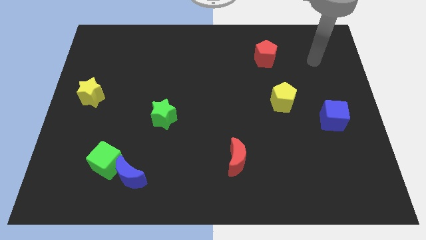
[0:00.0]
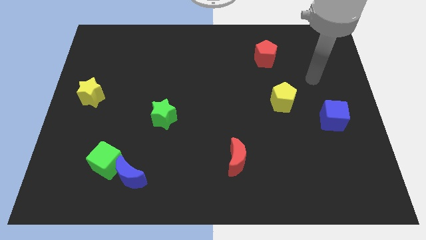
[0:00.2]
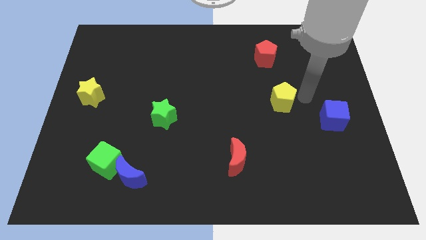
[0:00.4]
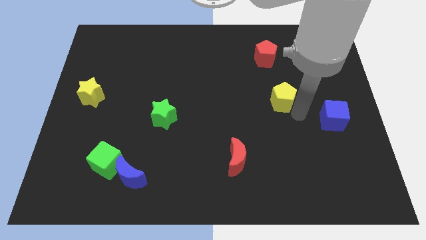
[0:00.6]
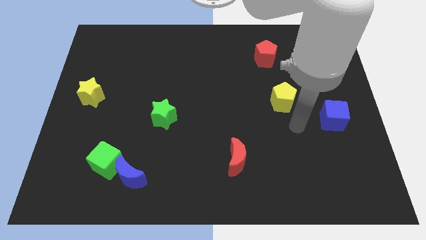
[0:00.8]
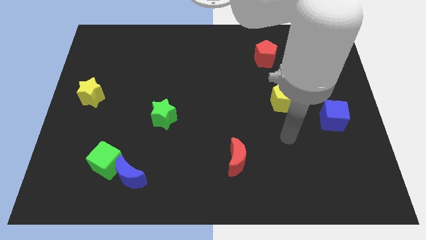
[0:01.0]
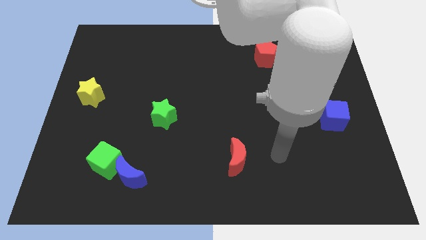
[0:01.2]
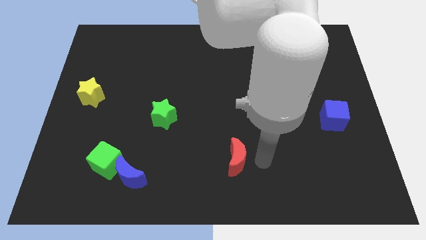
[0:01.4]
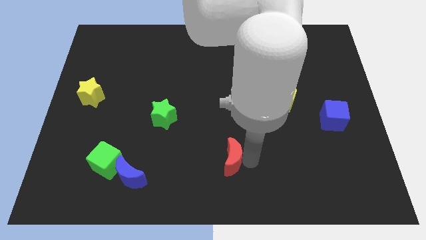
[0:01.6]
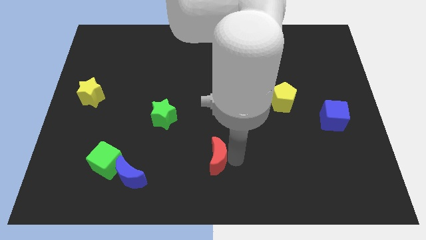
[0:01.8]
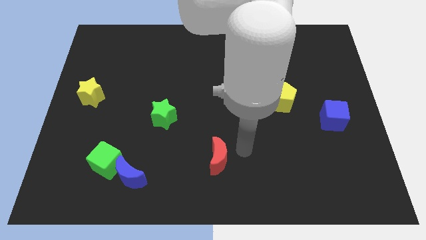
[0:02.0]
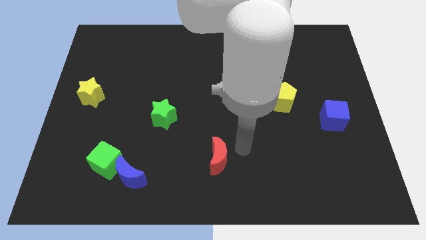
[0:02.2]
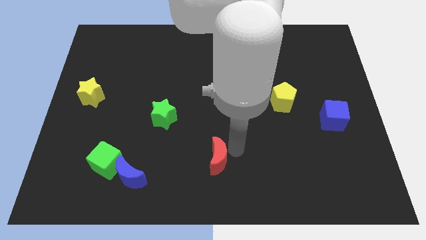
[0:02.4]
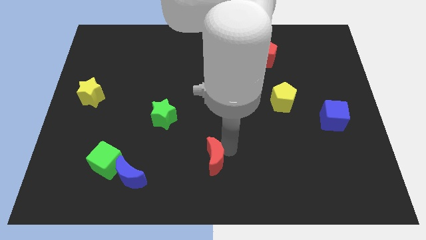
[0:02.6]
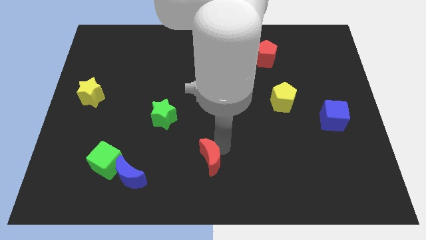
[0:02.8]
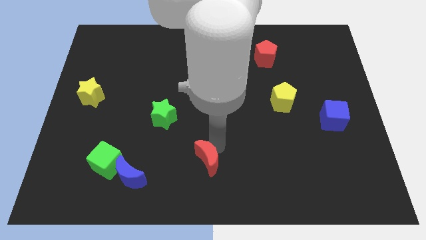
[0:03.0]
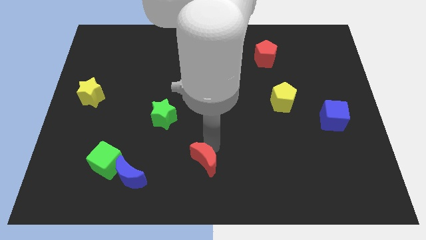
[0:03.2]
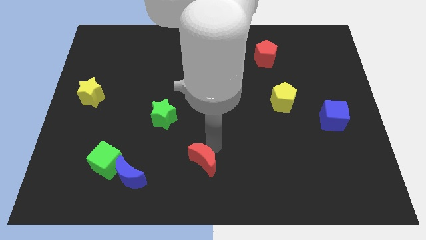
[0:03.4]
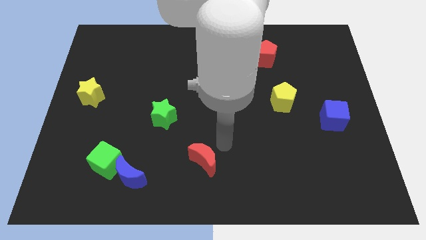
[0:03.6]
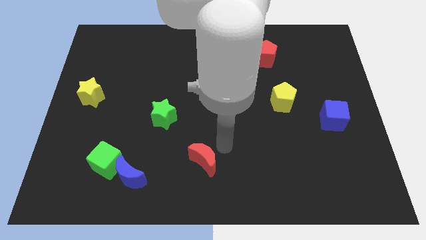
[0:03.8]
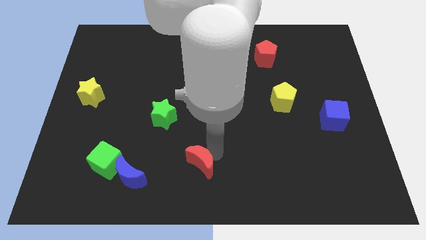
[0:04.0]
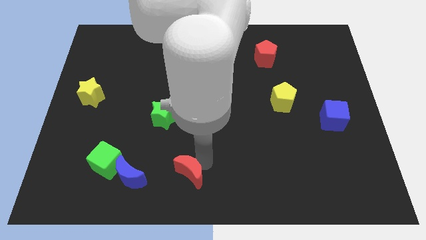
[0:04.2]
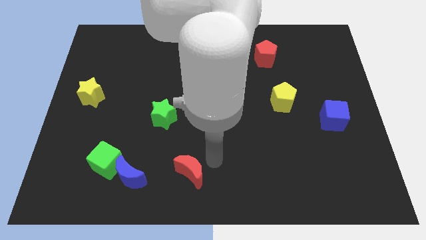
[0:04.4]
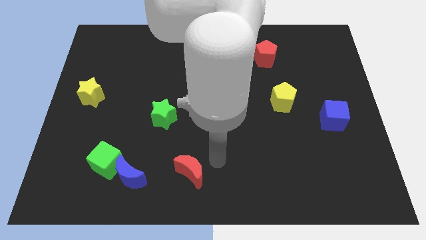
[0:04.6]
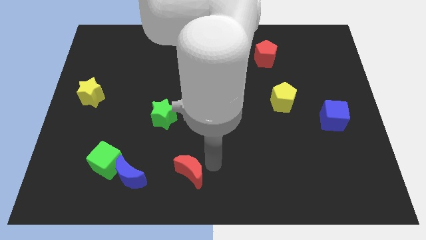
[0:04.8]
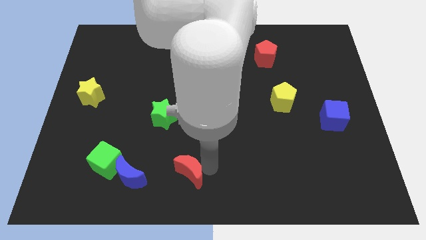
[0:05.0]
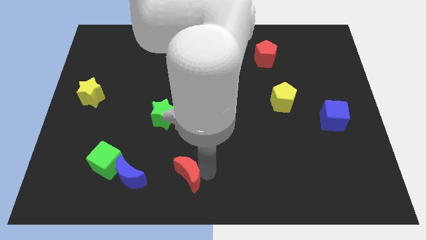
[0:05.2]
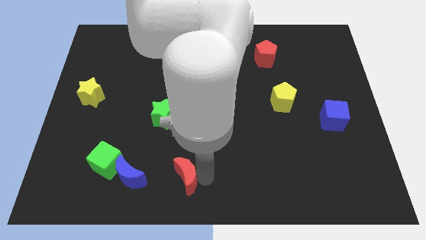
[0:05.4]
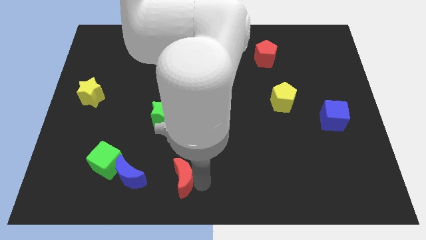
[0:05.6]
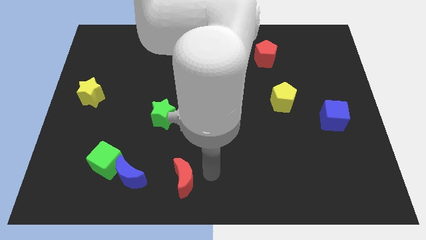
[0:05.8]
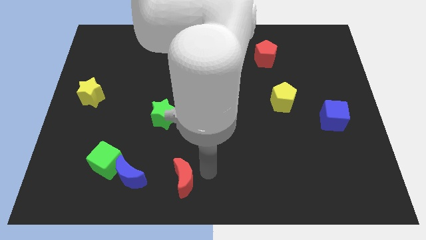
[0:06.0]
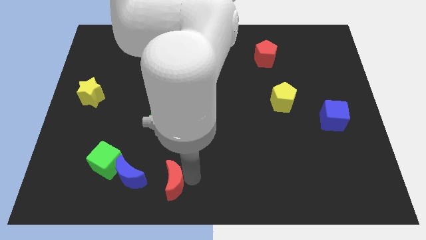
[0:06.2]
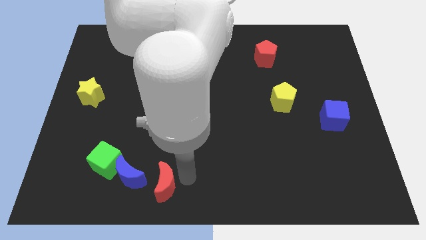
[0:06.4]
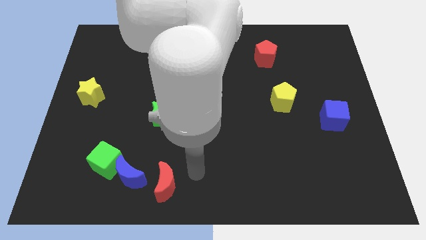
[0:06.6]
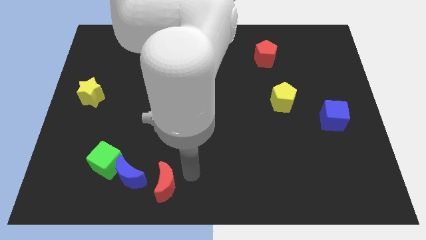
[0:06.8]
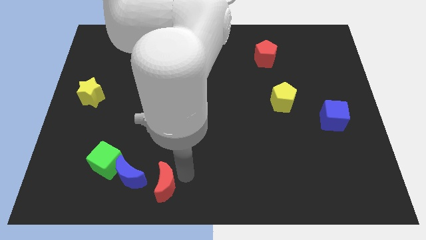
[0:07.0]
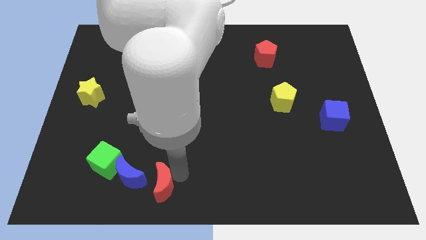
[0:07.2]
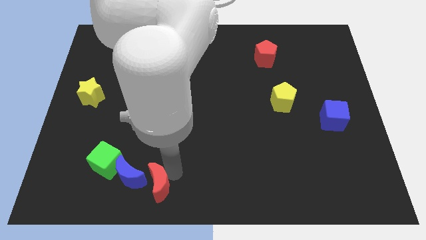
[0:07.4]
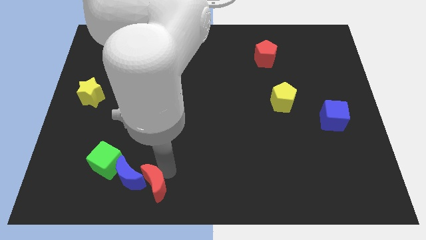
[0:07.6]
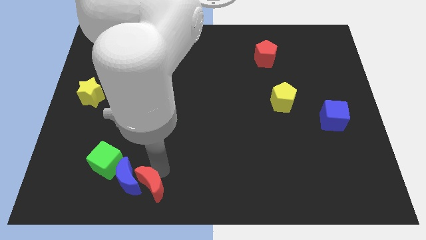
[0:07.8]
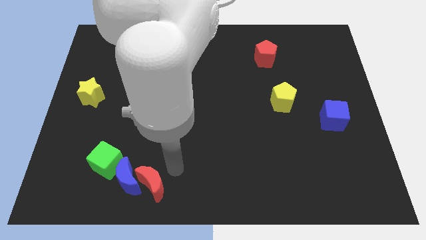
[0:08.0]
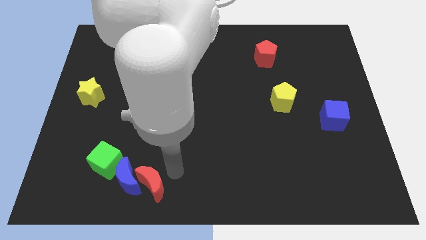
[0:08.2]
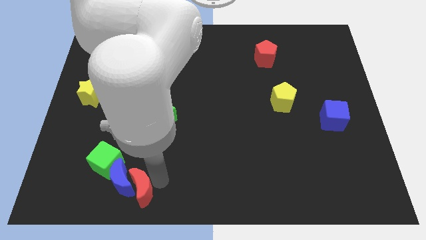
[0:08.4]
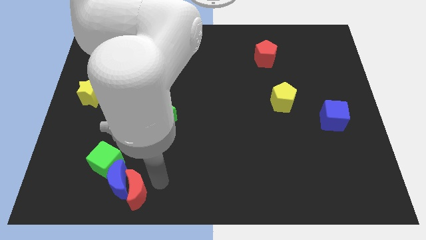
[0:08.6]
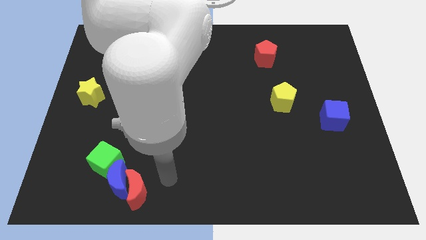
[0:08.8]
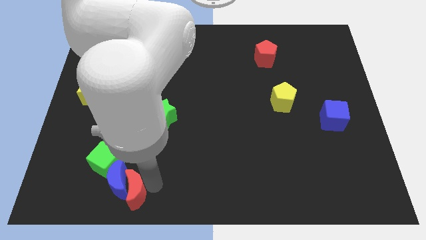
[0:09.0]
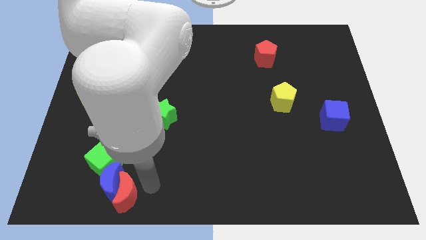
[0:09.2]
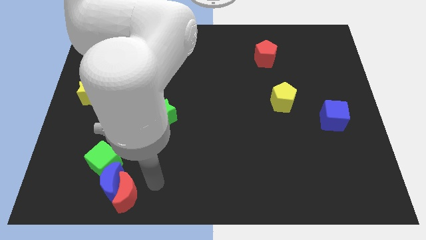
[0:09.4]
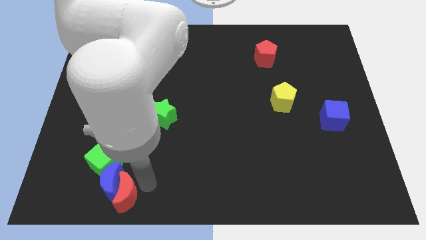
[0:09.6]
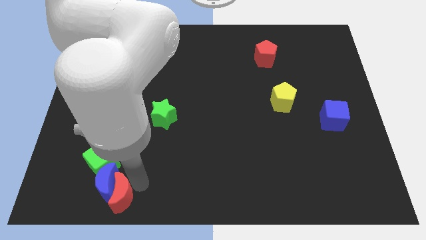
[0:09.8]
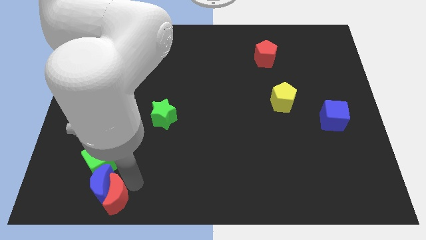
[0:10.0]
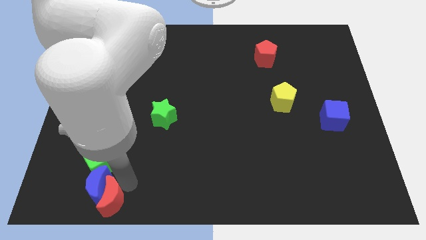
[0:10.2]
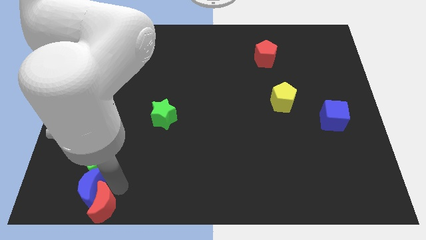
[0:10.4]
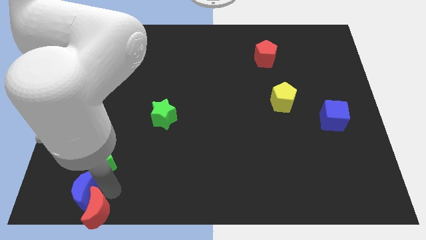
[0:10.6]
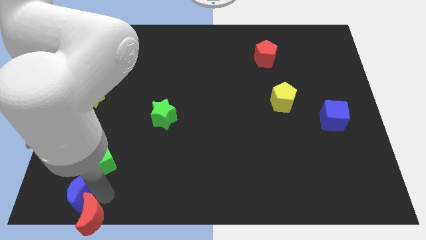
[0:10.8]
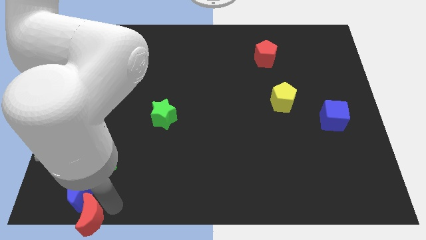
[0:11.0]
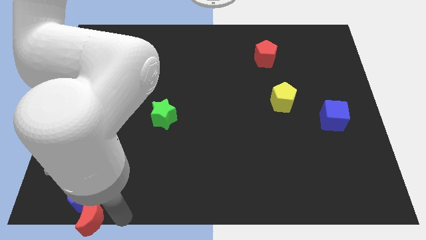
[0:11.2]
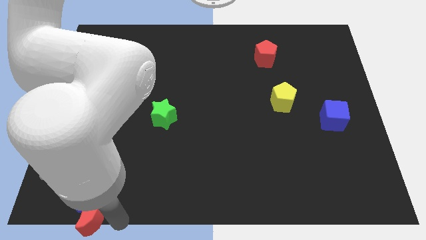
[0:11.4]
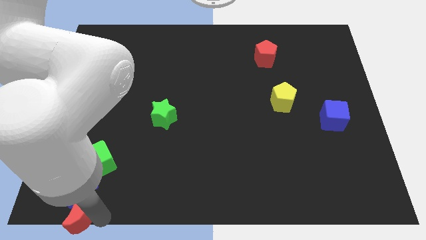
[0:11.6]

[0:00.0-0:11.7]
put the red moon to the bottom left
